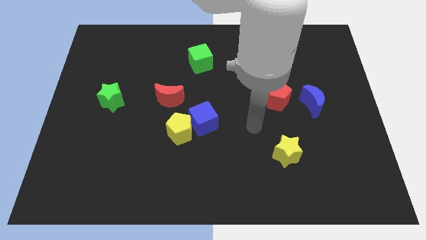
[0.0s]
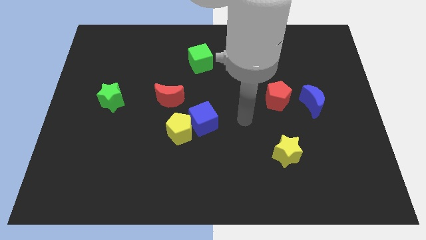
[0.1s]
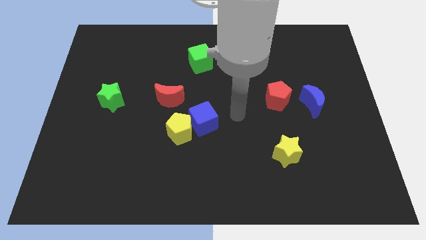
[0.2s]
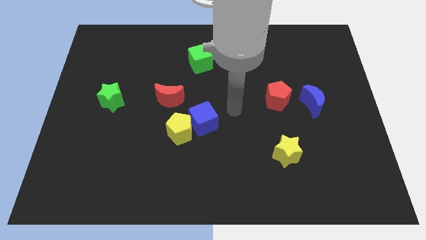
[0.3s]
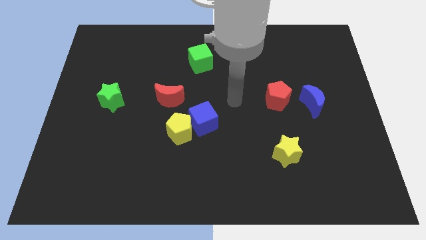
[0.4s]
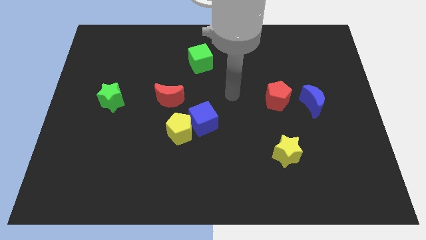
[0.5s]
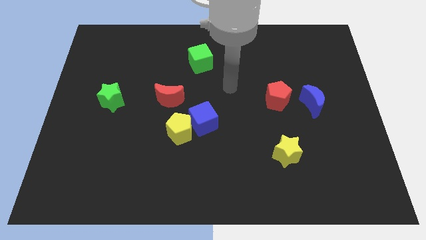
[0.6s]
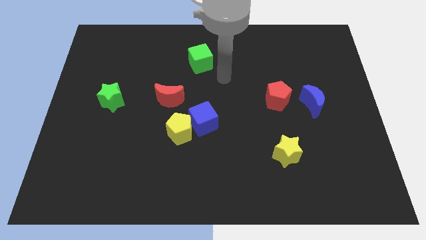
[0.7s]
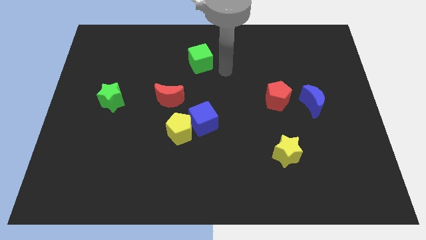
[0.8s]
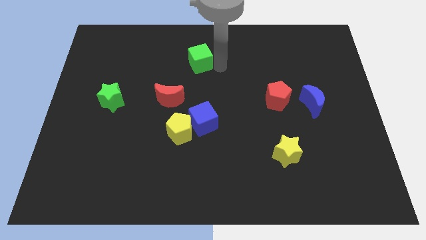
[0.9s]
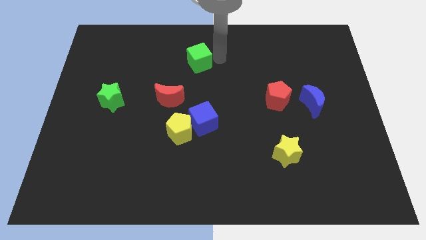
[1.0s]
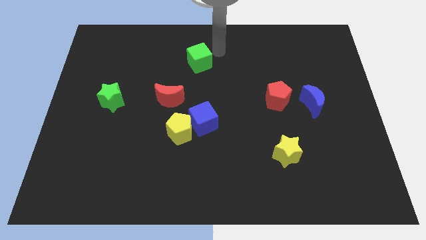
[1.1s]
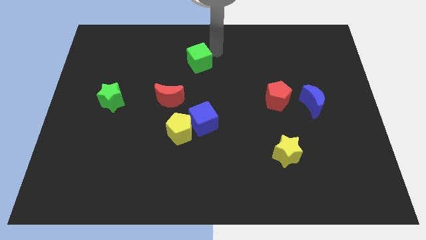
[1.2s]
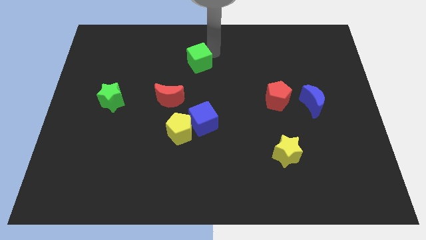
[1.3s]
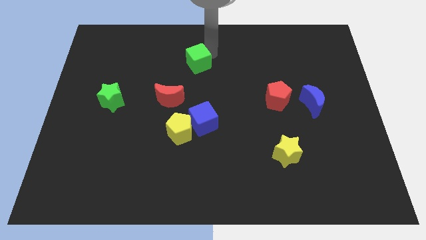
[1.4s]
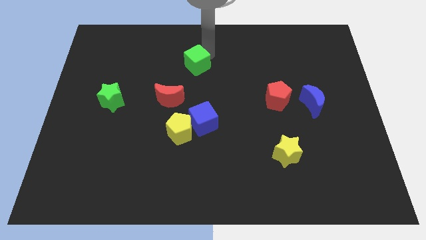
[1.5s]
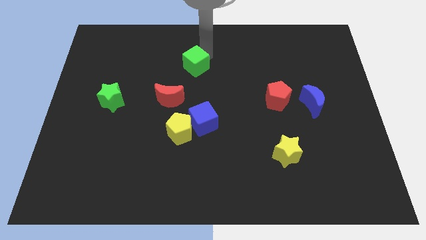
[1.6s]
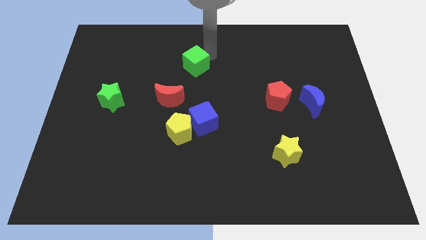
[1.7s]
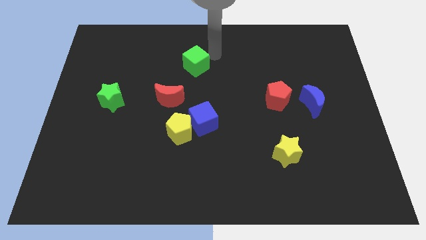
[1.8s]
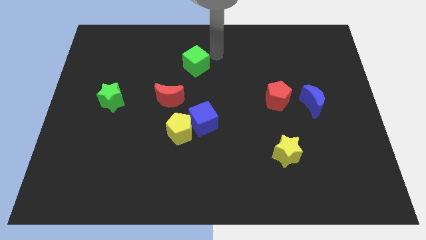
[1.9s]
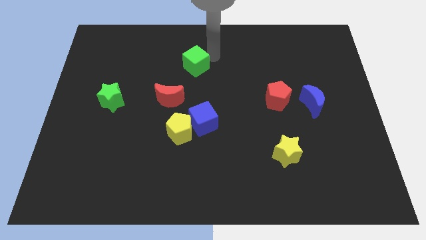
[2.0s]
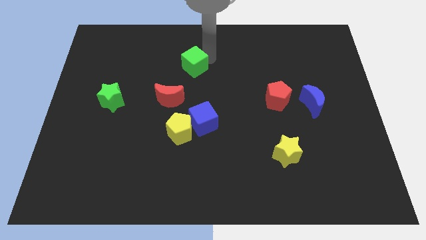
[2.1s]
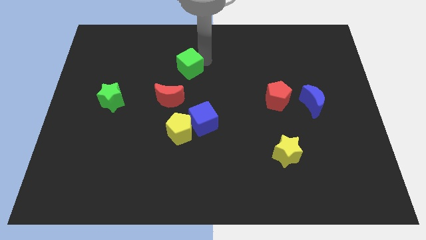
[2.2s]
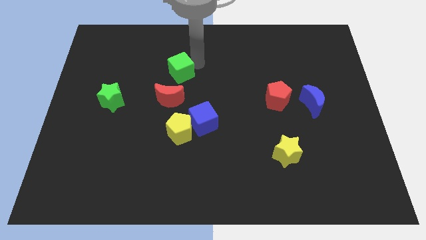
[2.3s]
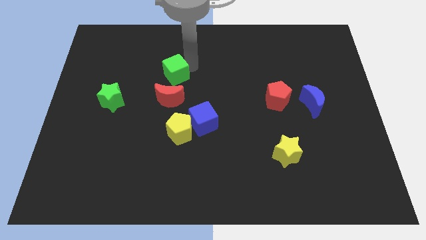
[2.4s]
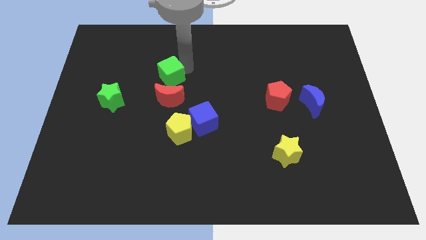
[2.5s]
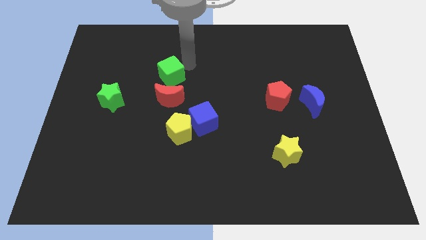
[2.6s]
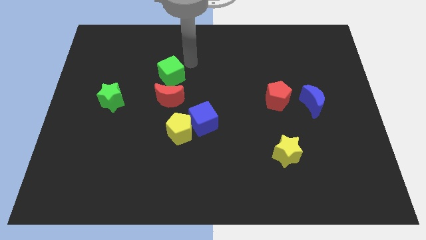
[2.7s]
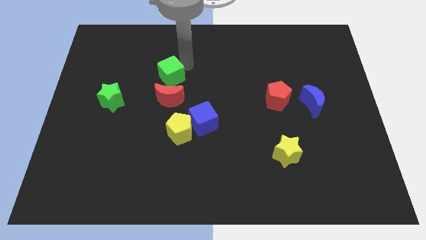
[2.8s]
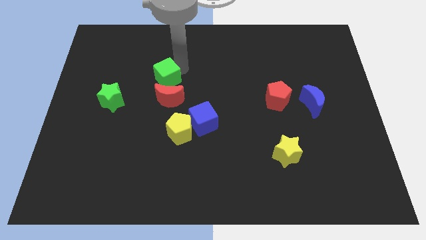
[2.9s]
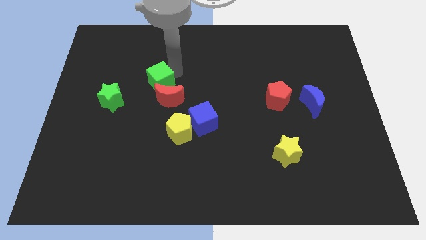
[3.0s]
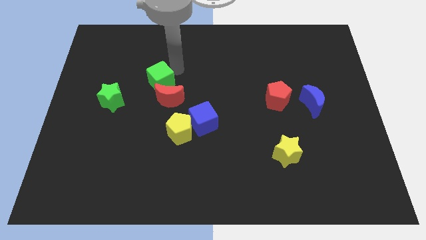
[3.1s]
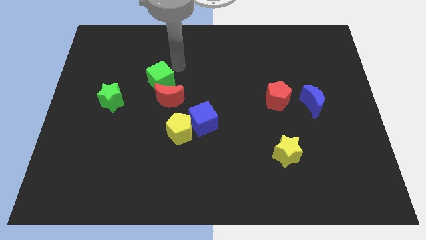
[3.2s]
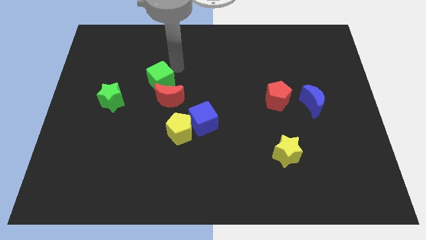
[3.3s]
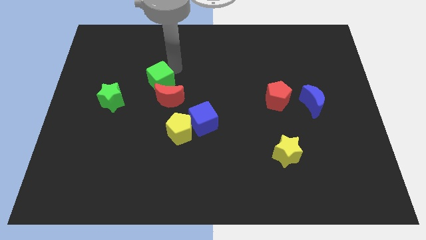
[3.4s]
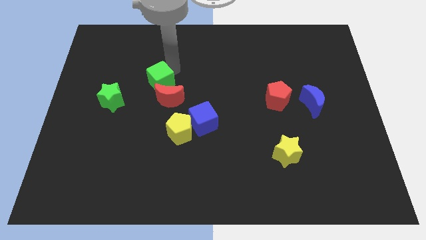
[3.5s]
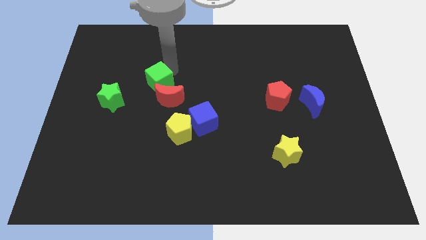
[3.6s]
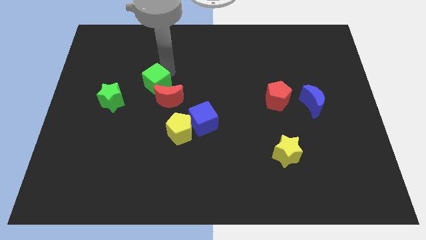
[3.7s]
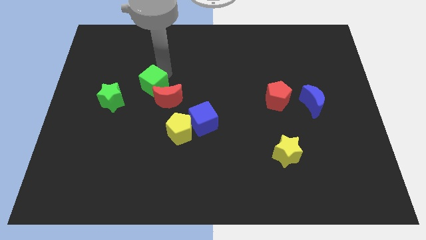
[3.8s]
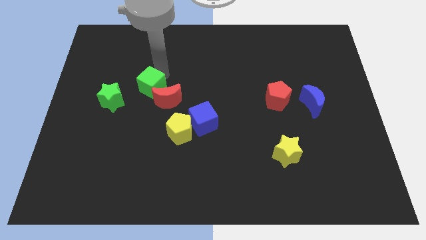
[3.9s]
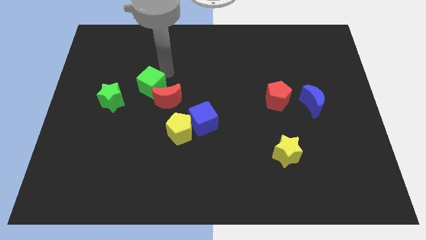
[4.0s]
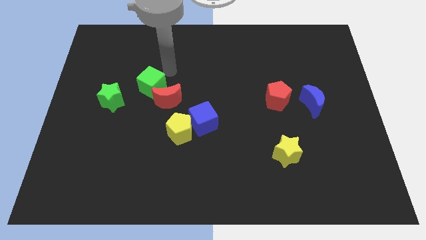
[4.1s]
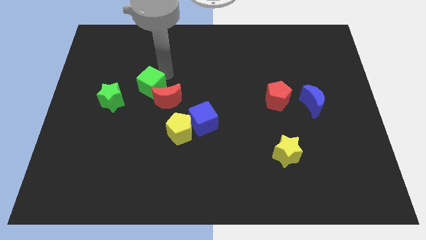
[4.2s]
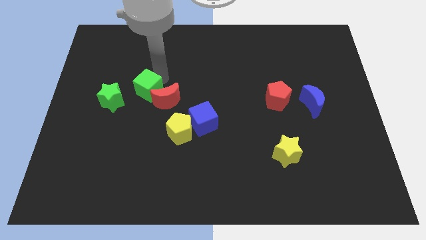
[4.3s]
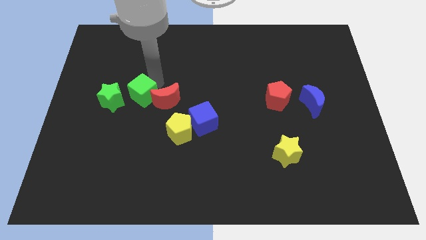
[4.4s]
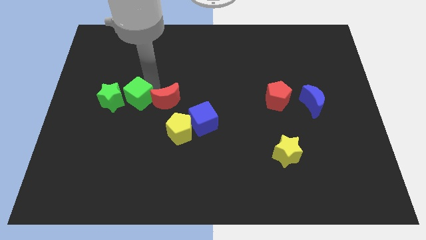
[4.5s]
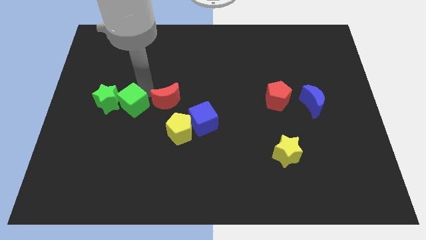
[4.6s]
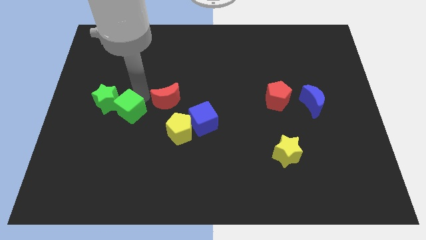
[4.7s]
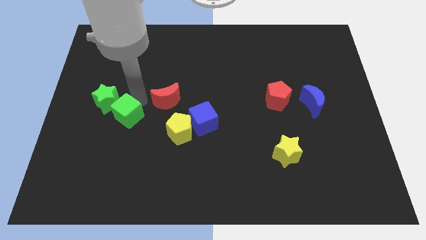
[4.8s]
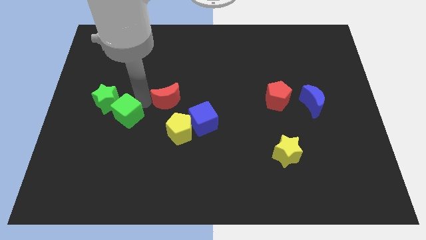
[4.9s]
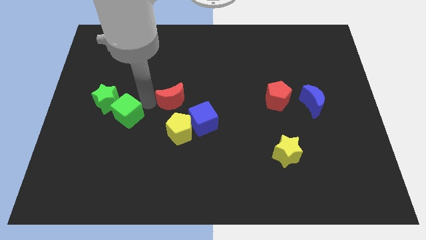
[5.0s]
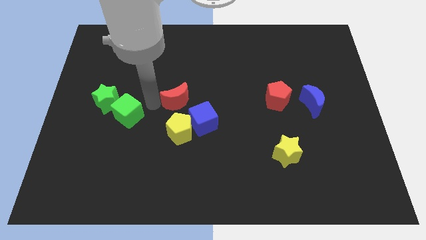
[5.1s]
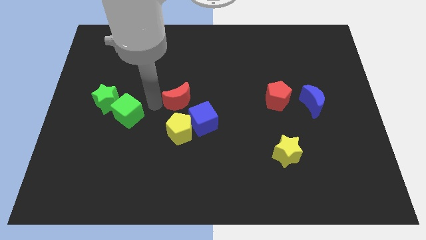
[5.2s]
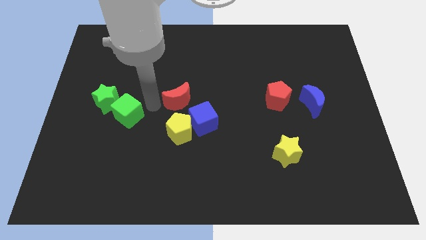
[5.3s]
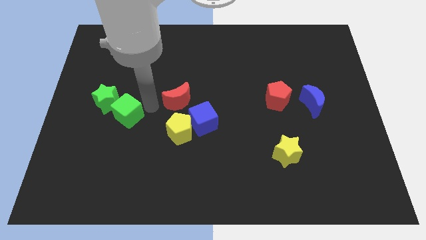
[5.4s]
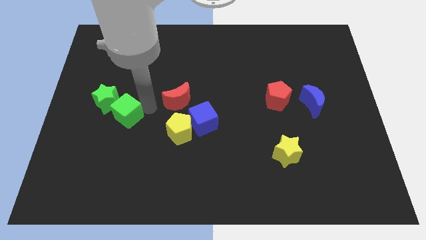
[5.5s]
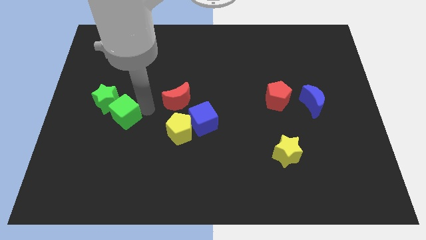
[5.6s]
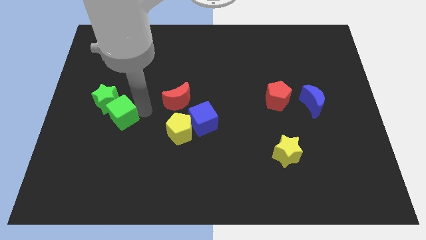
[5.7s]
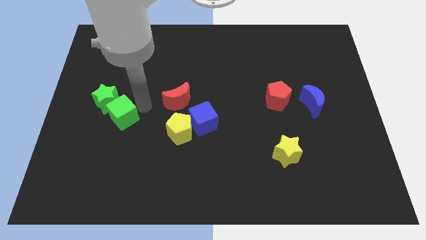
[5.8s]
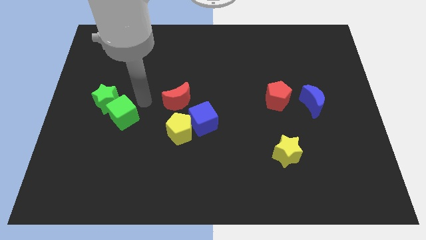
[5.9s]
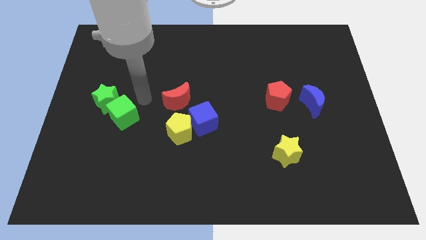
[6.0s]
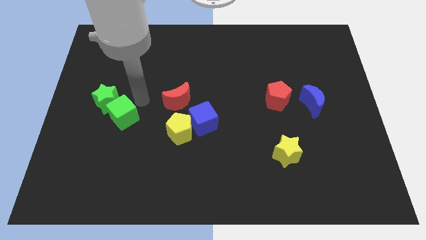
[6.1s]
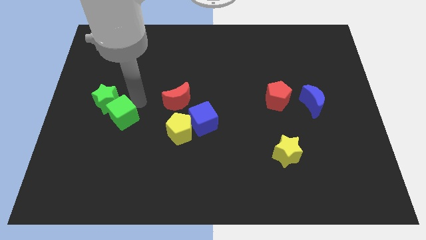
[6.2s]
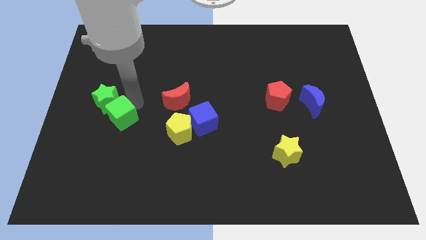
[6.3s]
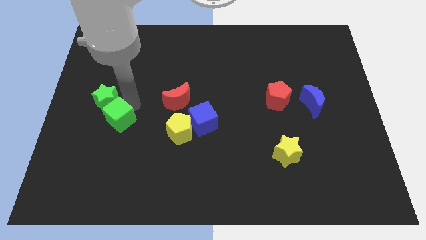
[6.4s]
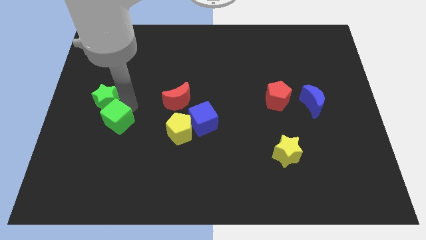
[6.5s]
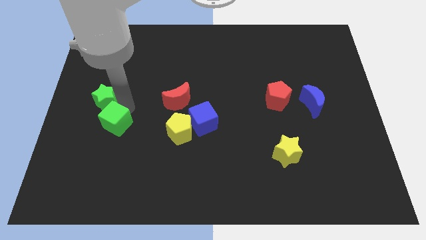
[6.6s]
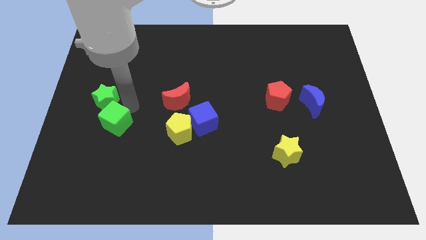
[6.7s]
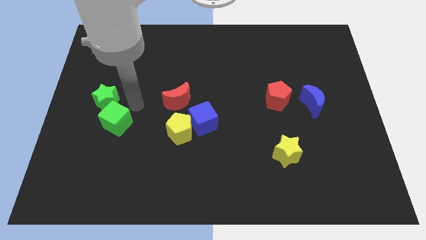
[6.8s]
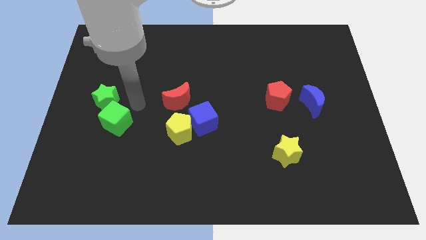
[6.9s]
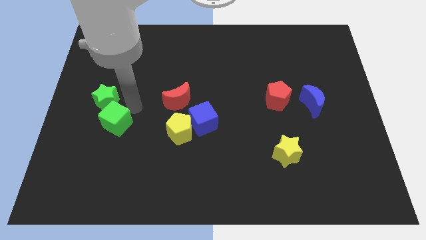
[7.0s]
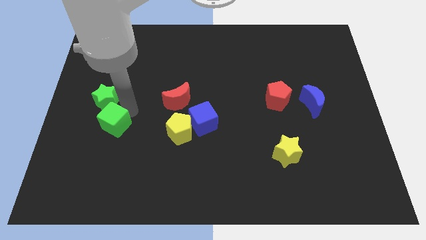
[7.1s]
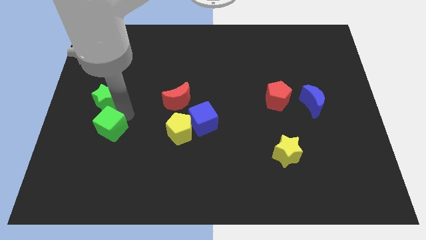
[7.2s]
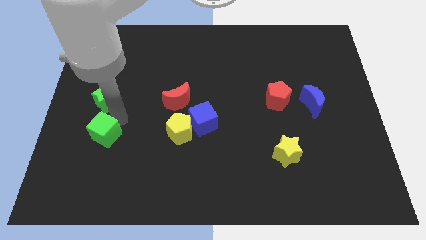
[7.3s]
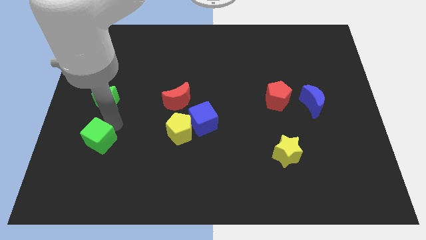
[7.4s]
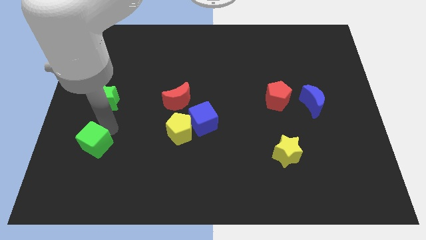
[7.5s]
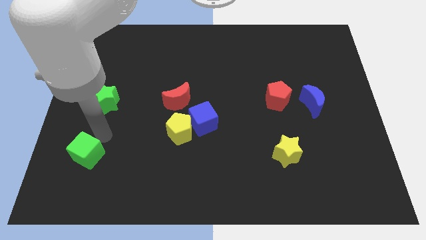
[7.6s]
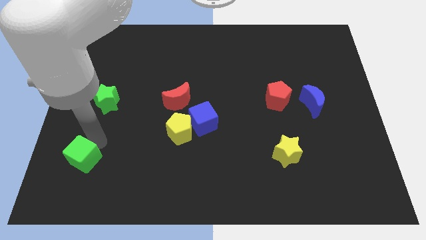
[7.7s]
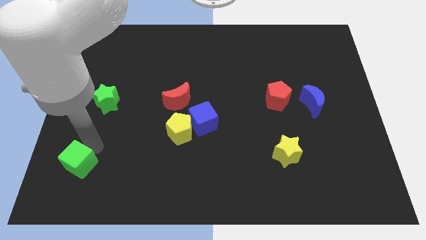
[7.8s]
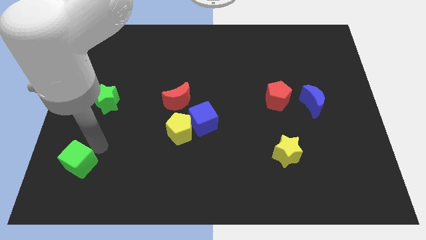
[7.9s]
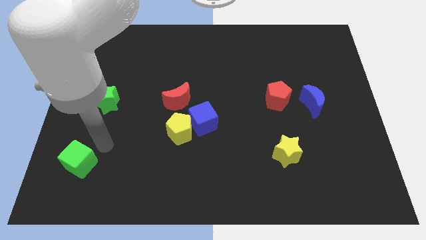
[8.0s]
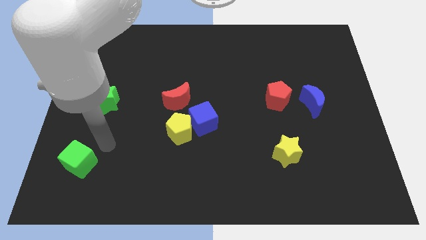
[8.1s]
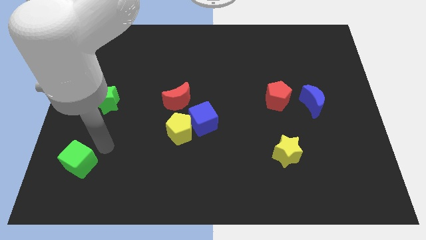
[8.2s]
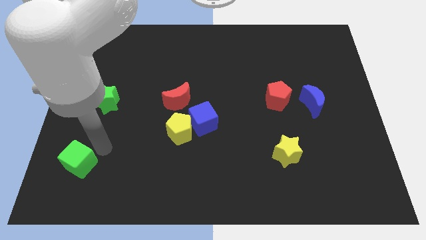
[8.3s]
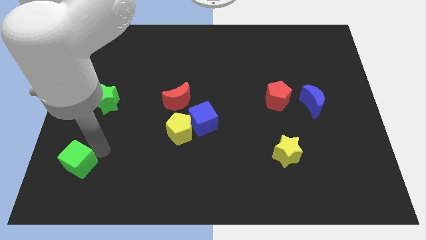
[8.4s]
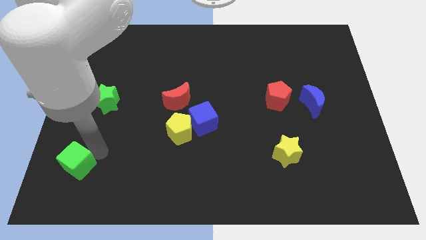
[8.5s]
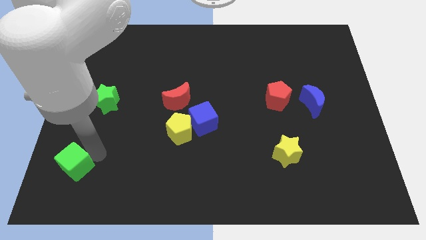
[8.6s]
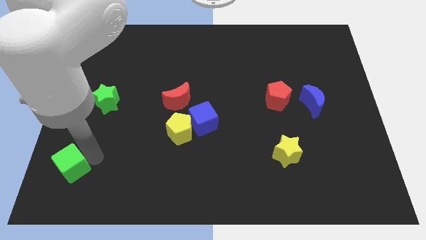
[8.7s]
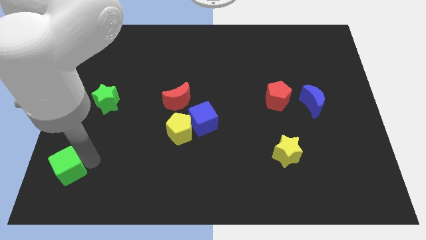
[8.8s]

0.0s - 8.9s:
move the green cube to the lower left corner
